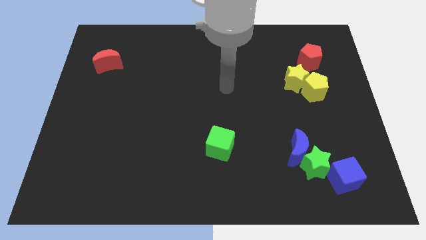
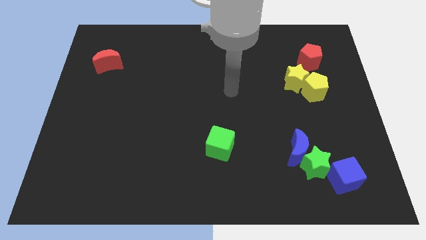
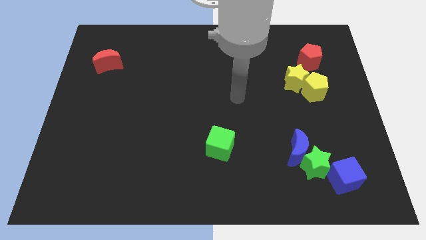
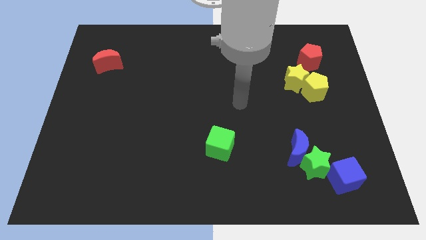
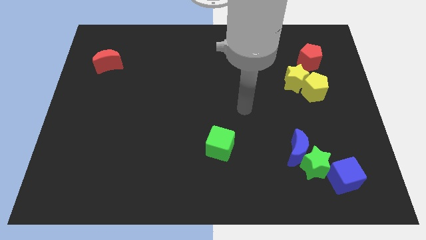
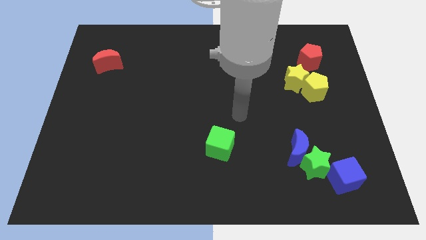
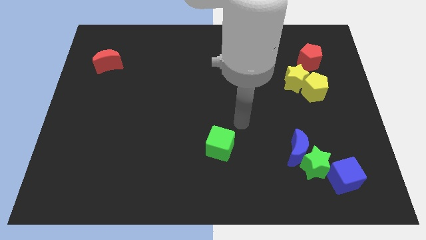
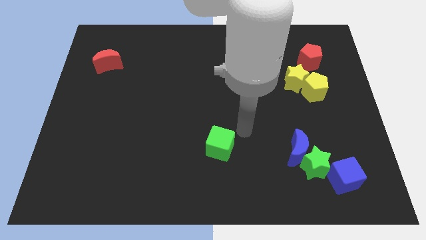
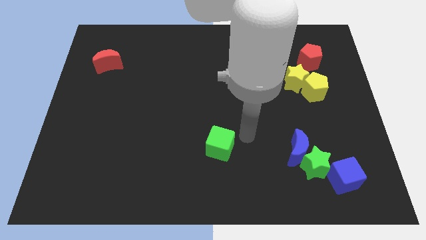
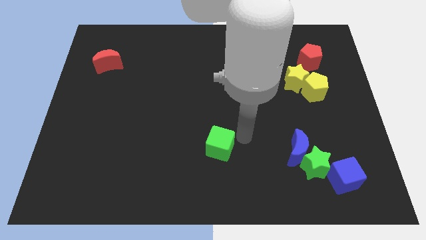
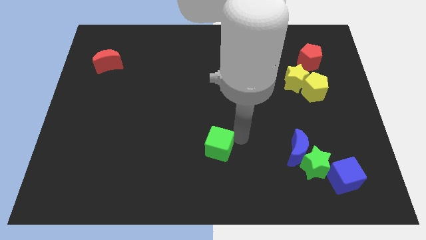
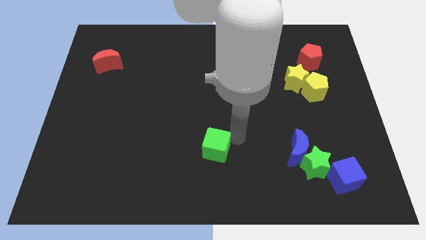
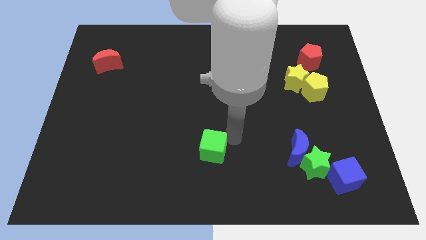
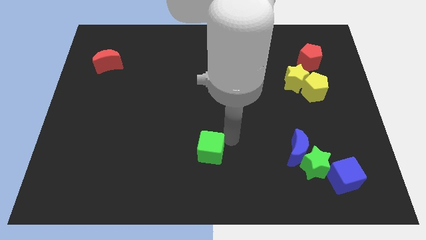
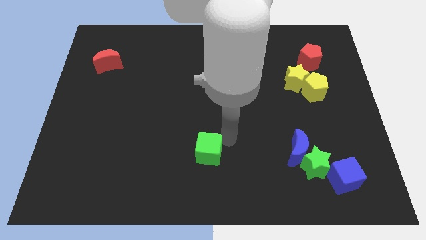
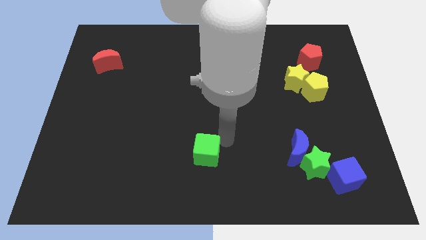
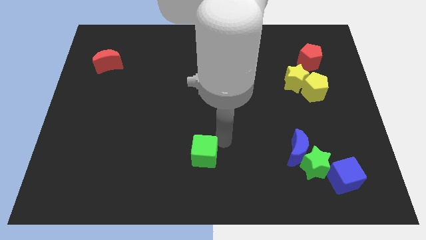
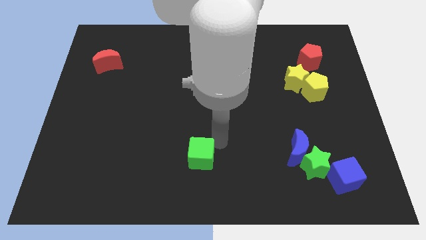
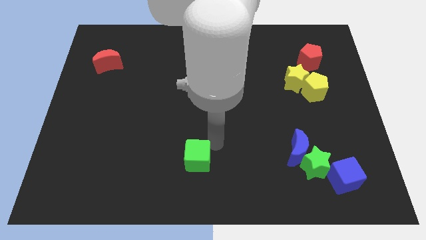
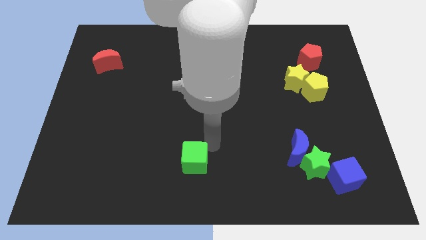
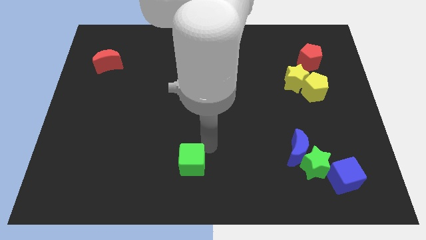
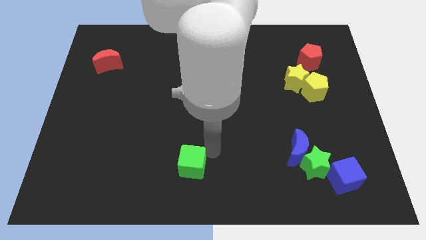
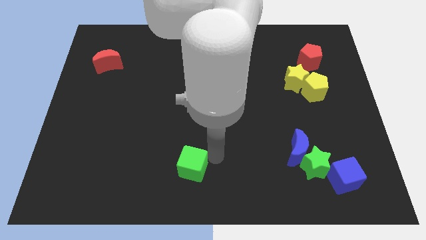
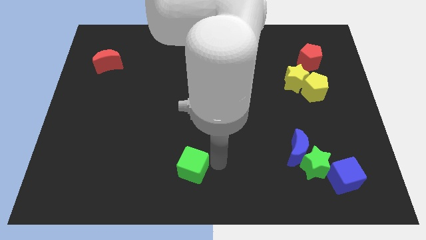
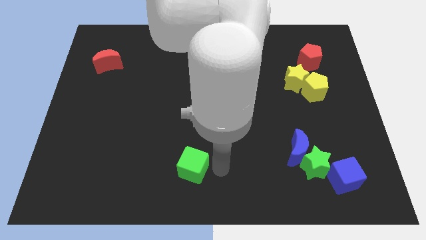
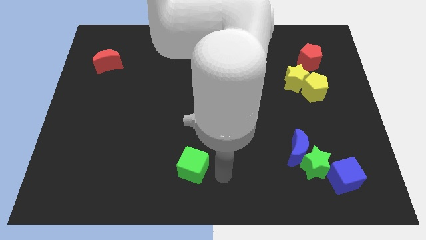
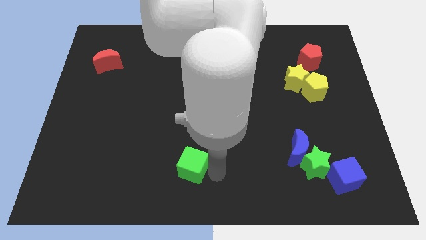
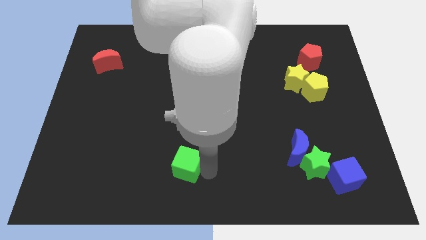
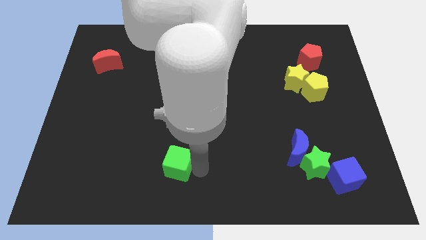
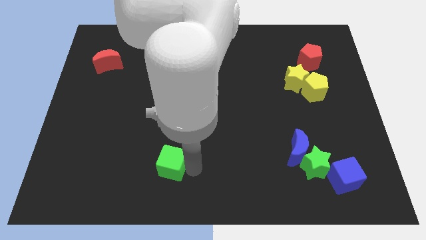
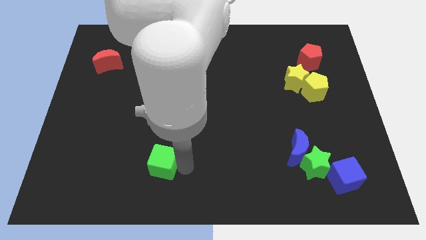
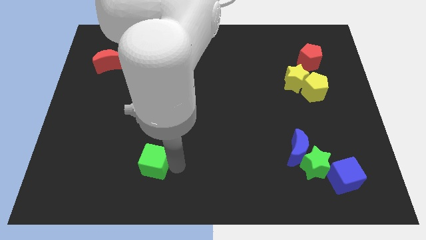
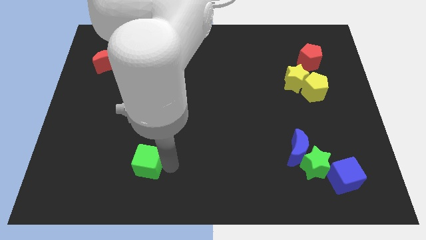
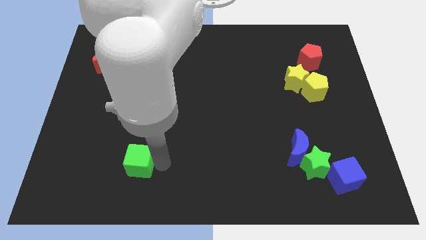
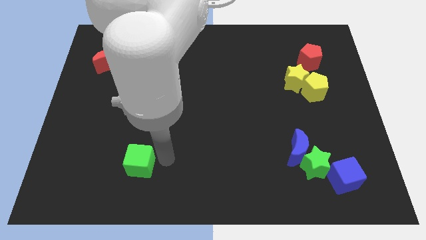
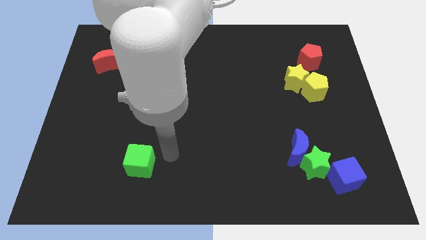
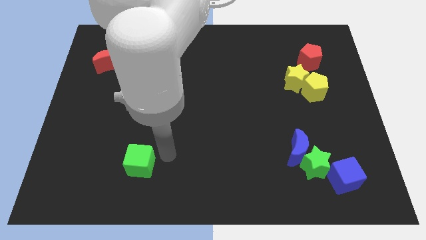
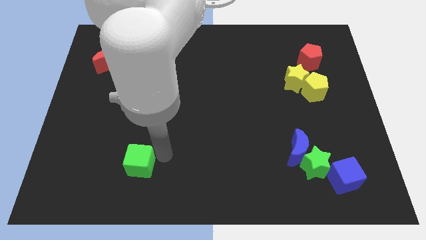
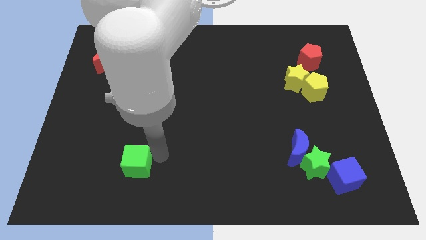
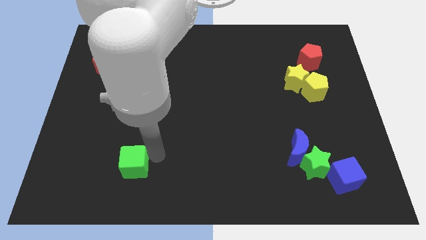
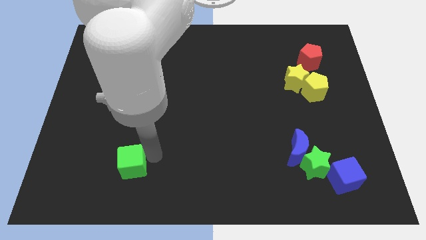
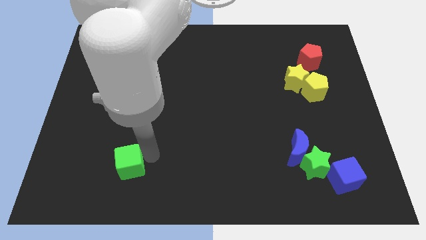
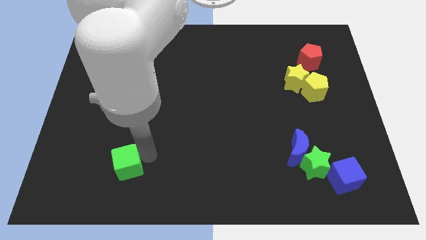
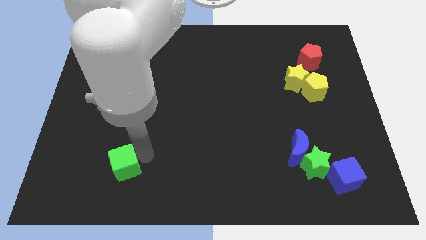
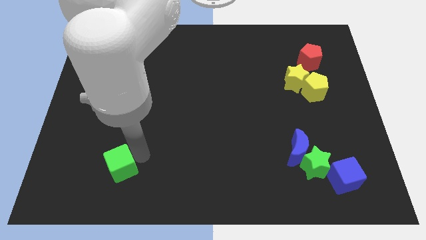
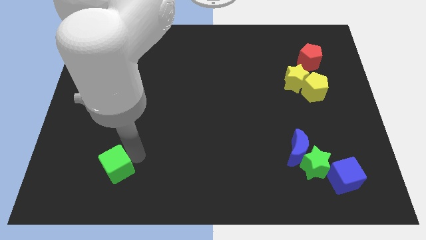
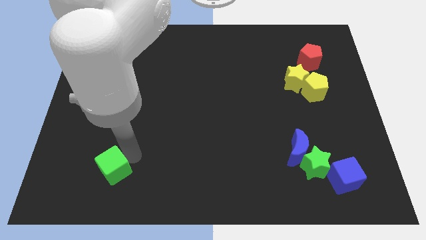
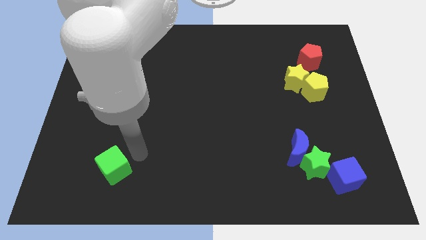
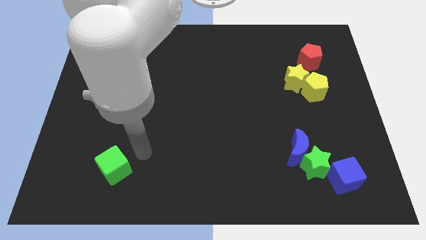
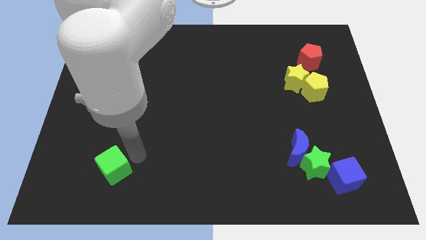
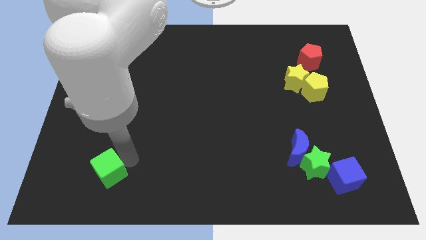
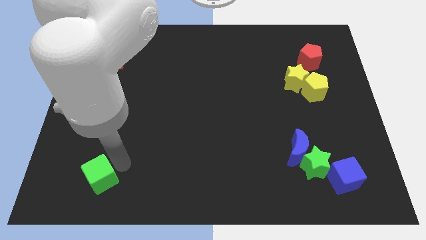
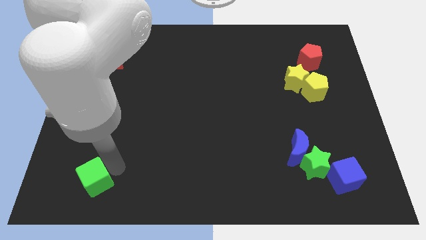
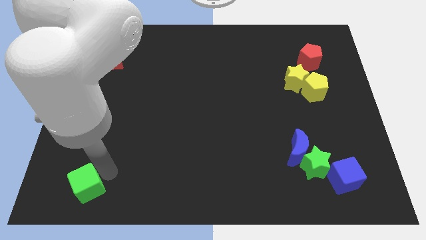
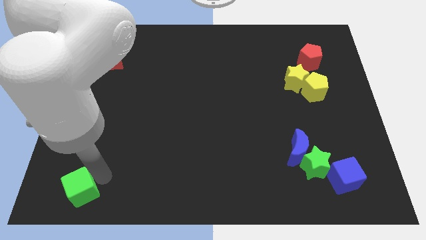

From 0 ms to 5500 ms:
put the green cube to the bottom left of the board

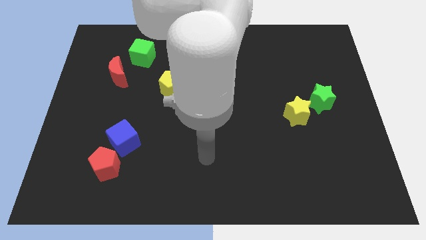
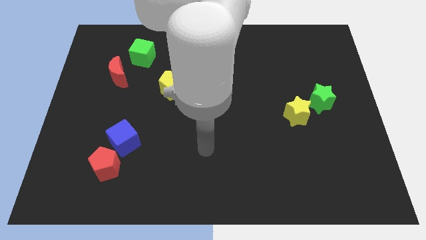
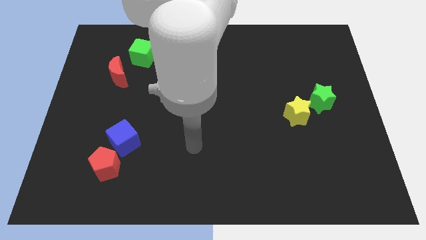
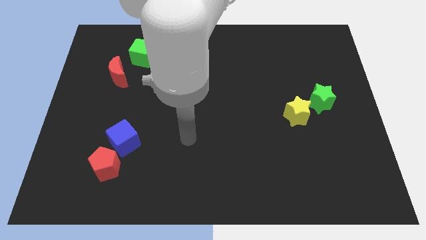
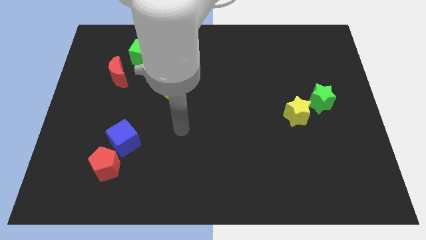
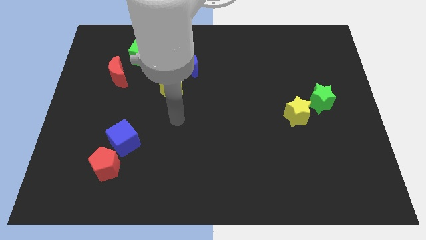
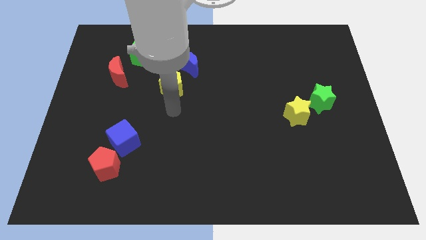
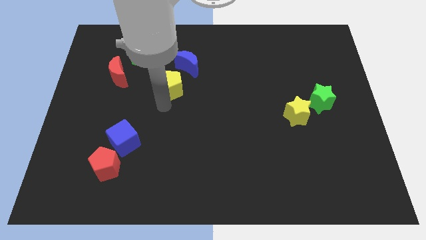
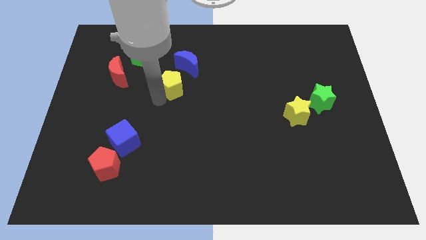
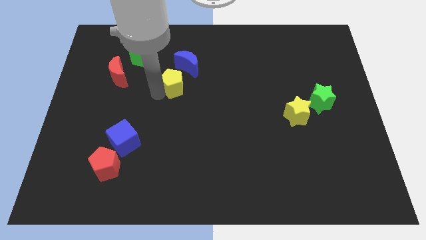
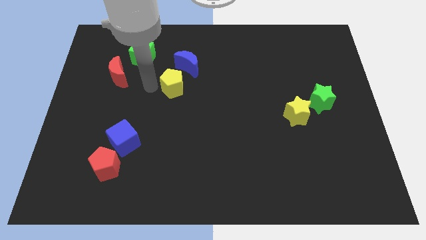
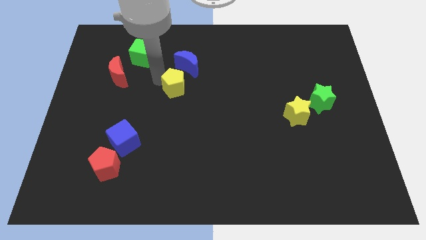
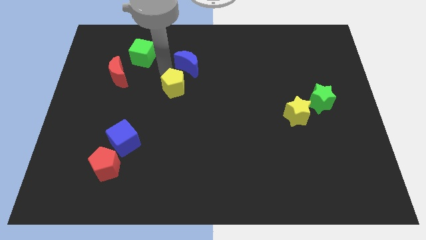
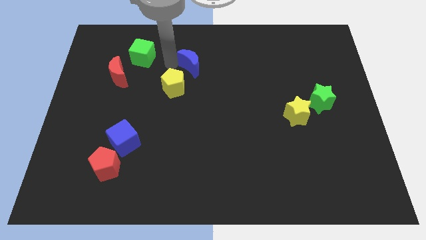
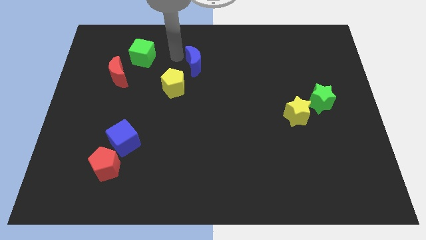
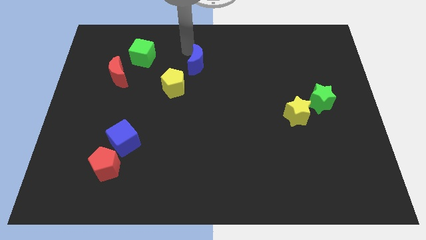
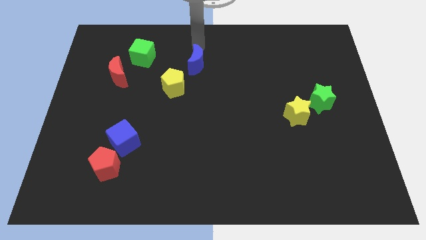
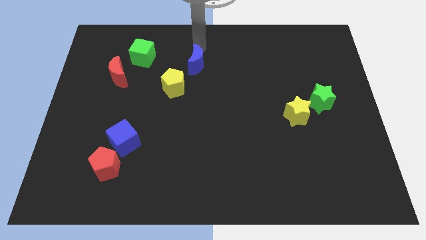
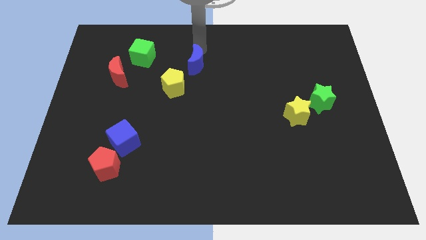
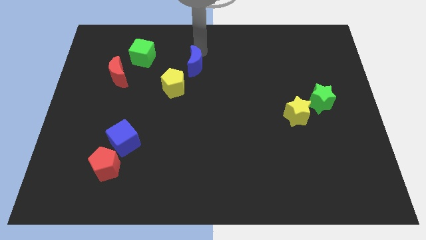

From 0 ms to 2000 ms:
move the blue moon to the center of the board
